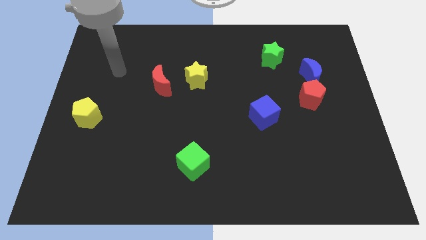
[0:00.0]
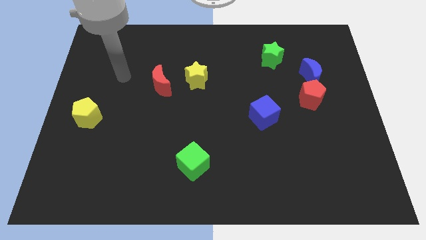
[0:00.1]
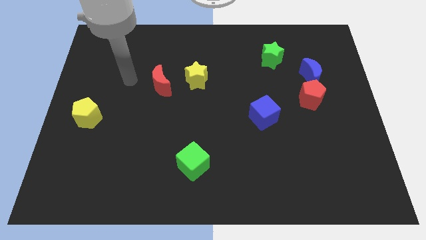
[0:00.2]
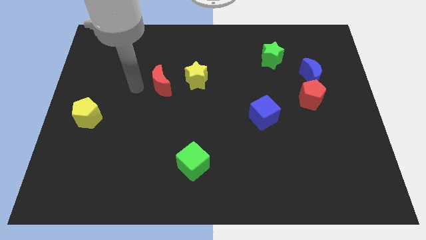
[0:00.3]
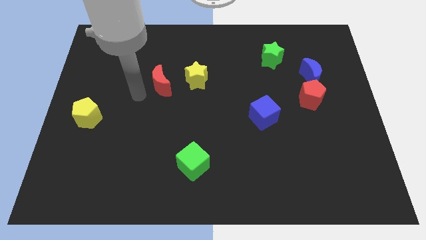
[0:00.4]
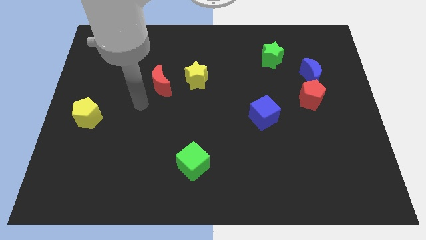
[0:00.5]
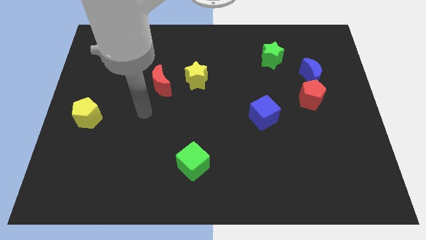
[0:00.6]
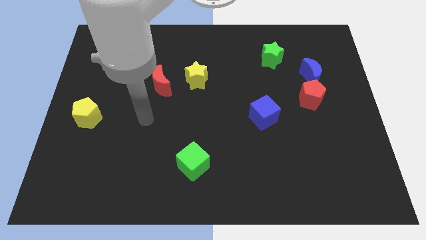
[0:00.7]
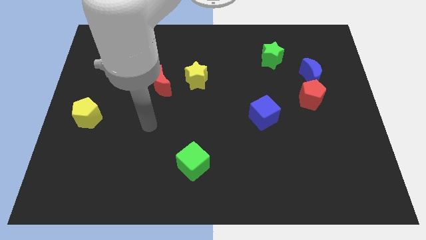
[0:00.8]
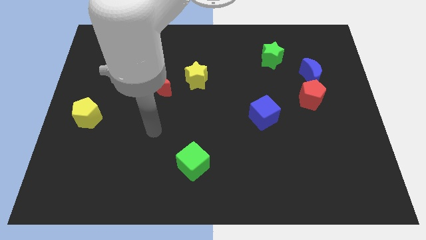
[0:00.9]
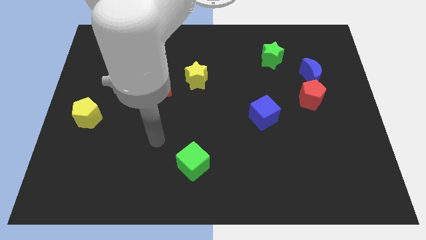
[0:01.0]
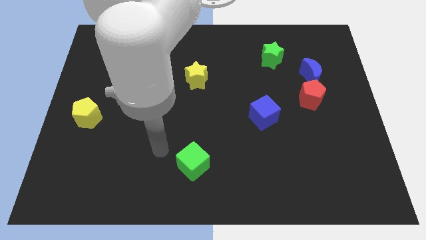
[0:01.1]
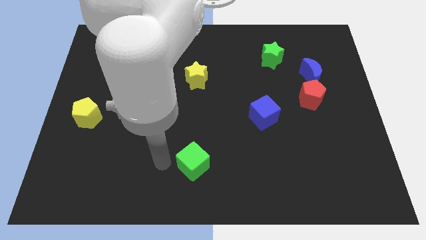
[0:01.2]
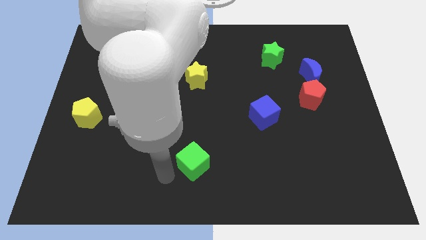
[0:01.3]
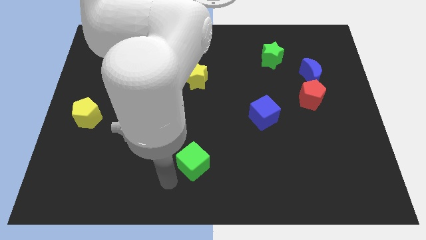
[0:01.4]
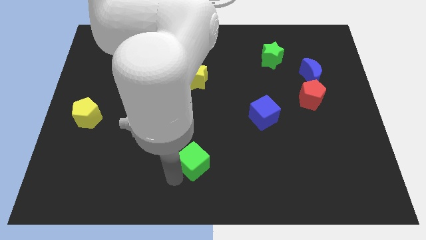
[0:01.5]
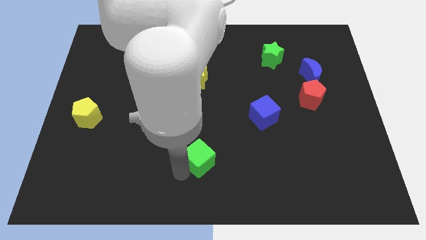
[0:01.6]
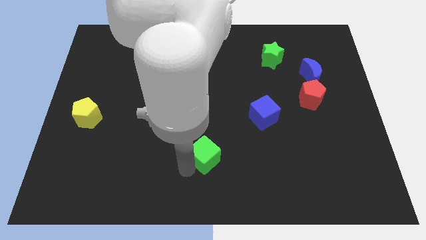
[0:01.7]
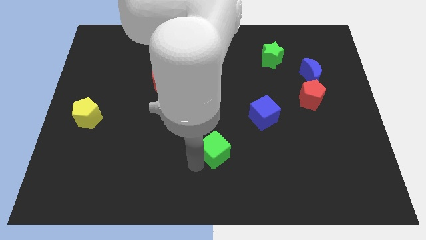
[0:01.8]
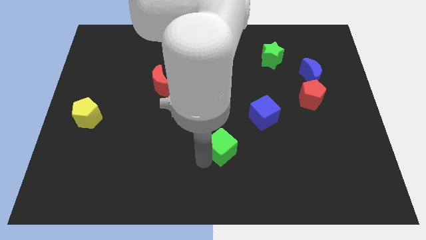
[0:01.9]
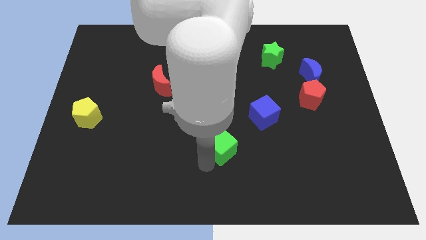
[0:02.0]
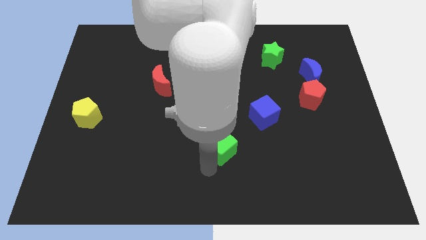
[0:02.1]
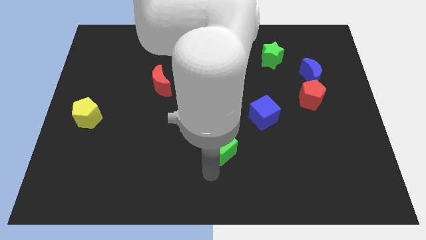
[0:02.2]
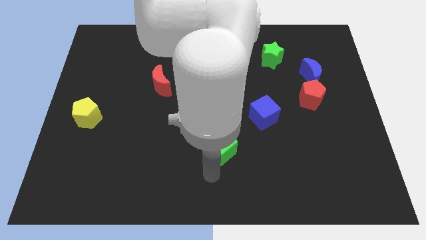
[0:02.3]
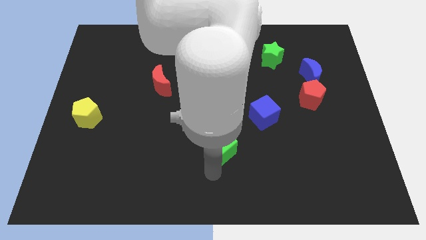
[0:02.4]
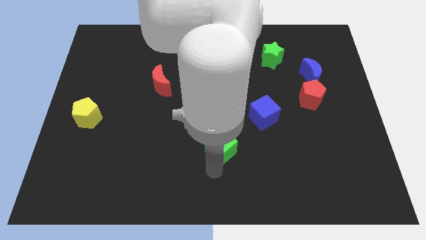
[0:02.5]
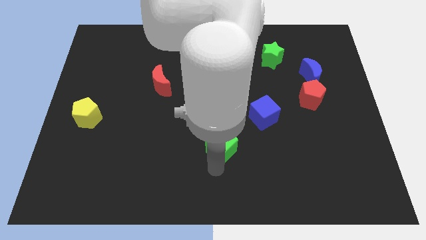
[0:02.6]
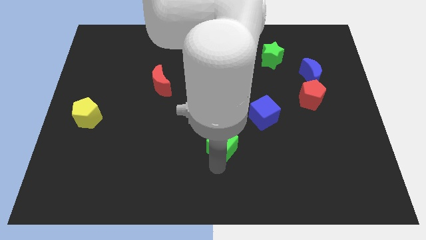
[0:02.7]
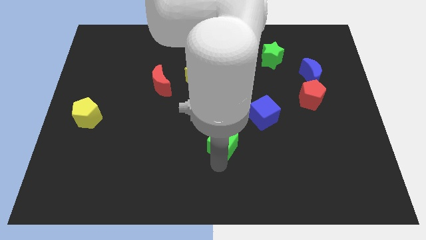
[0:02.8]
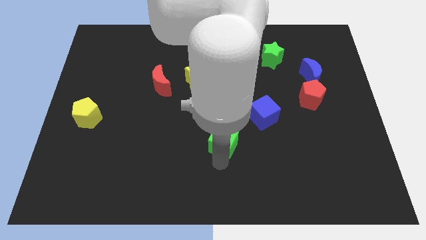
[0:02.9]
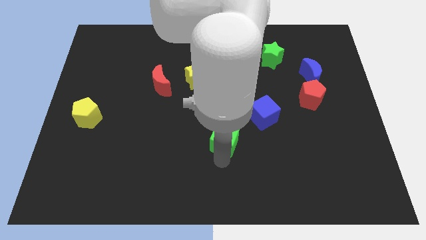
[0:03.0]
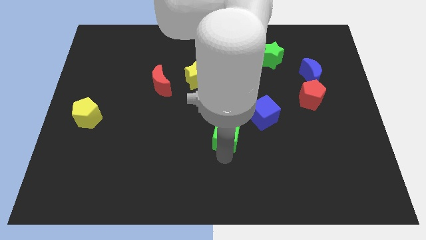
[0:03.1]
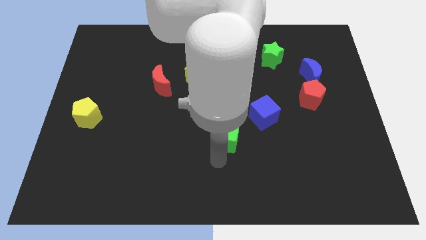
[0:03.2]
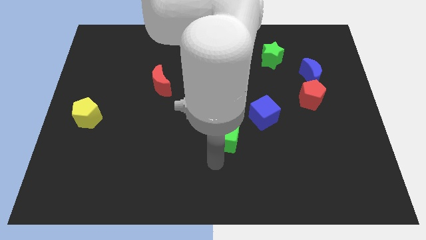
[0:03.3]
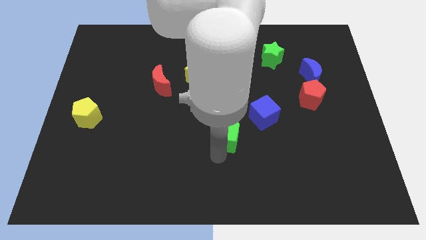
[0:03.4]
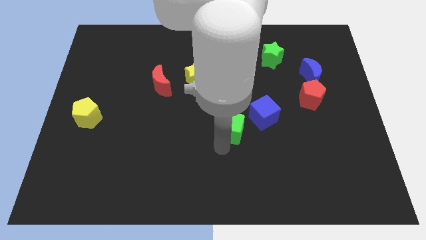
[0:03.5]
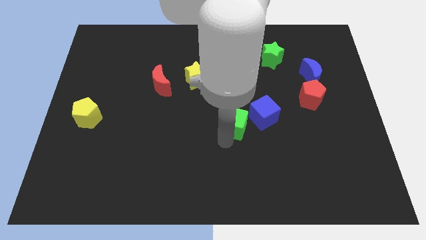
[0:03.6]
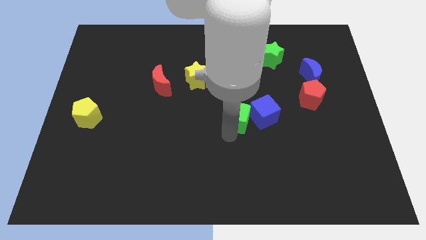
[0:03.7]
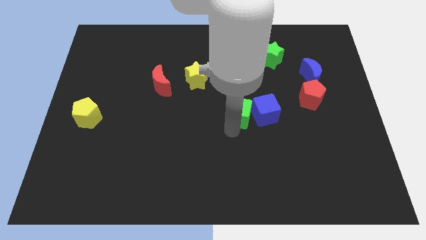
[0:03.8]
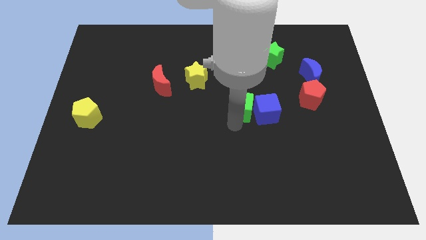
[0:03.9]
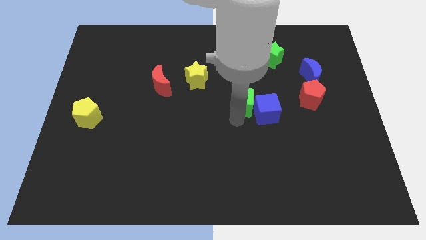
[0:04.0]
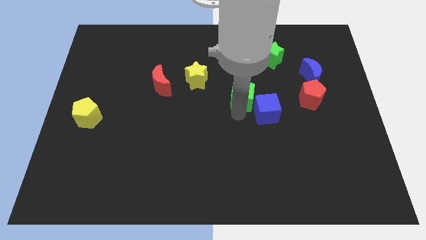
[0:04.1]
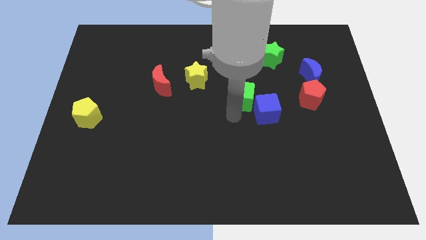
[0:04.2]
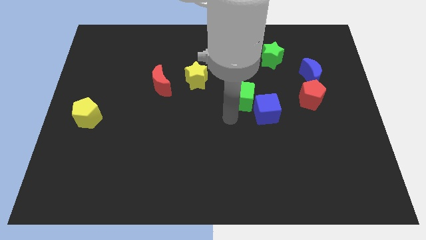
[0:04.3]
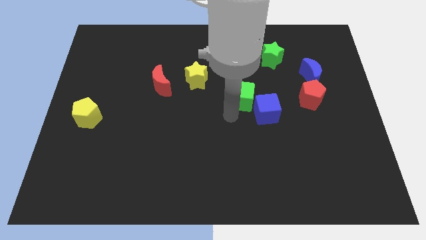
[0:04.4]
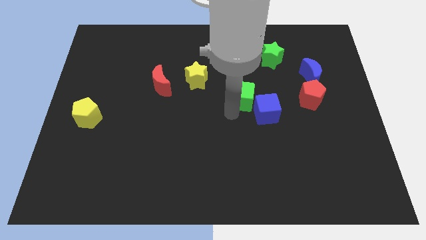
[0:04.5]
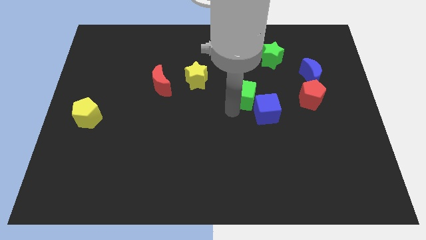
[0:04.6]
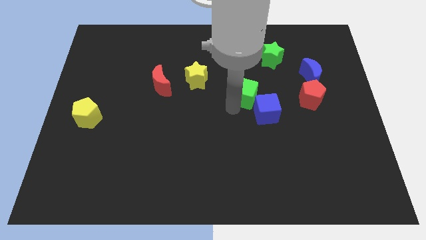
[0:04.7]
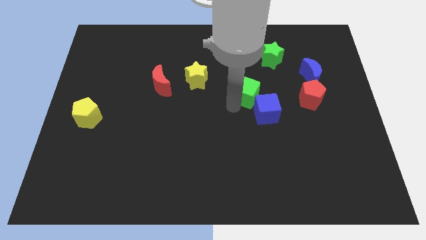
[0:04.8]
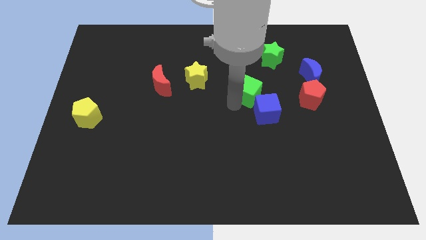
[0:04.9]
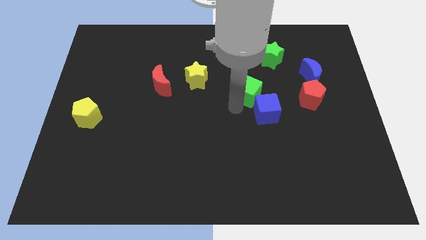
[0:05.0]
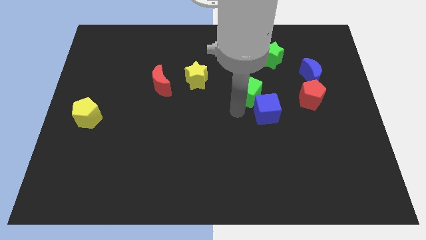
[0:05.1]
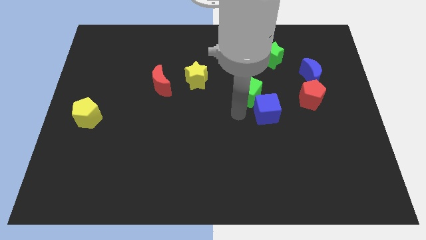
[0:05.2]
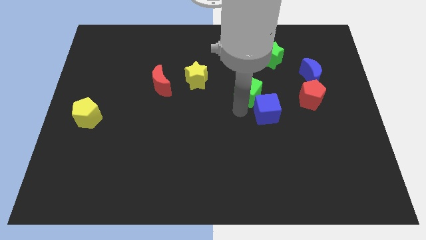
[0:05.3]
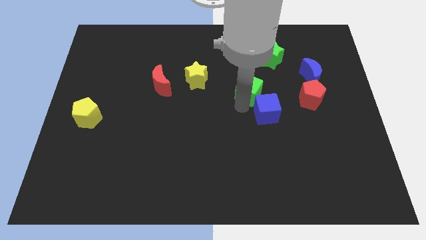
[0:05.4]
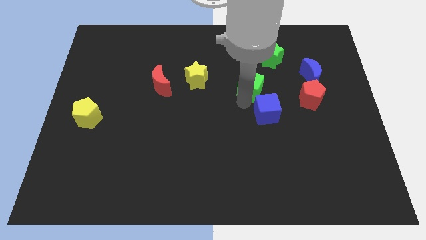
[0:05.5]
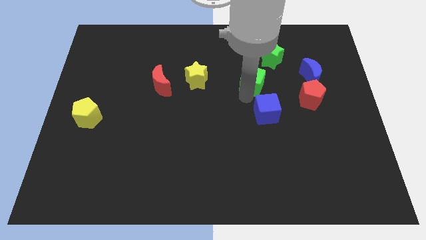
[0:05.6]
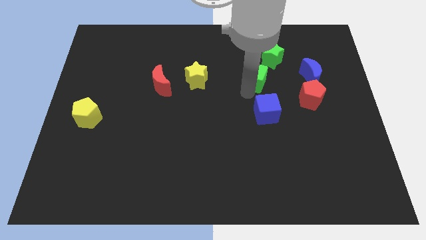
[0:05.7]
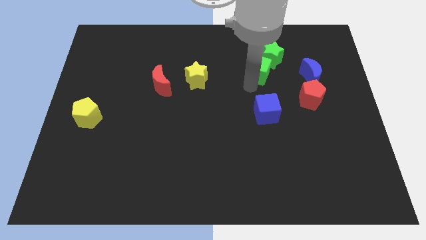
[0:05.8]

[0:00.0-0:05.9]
put the green cube towards the green star

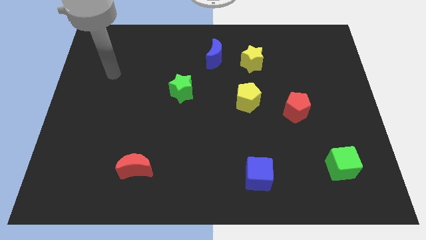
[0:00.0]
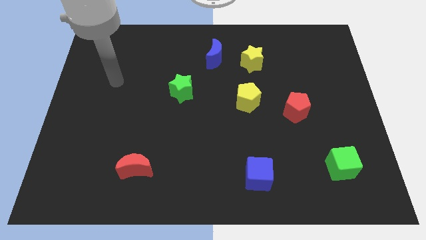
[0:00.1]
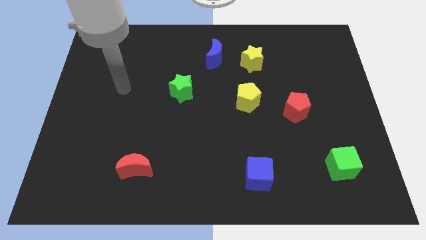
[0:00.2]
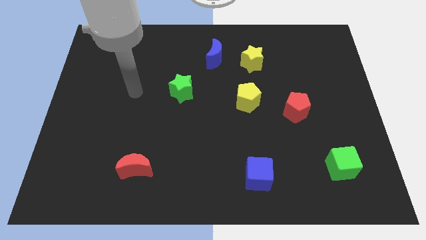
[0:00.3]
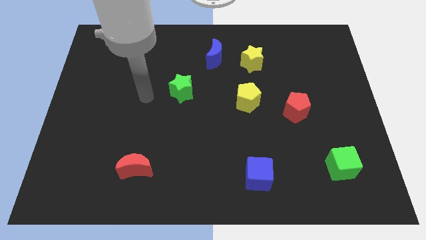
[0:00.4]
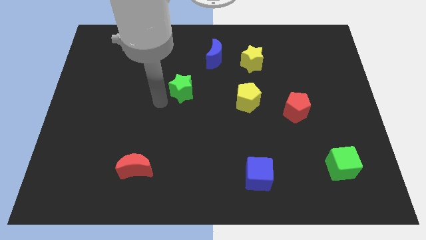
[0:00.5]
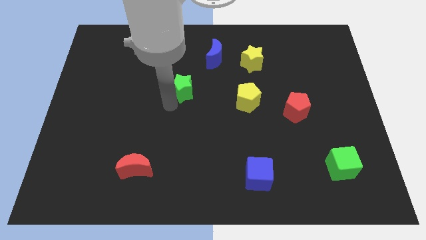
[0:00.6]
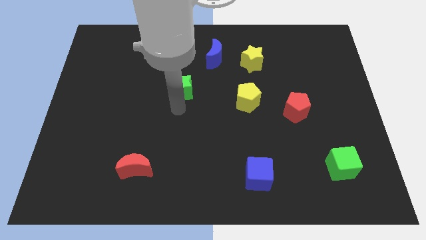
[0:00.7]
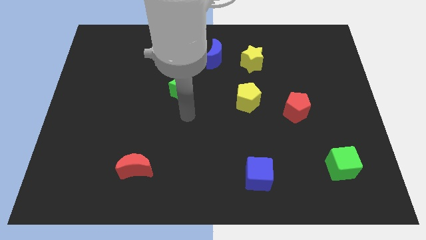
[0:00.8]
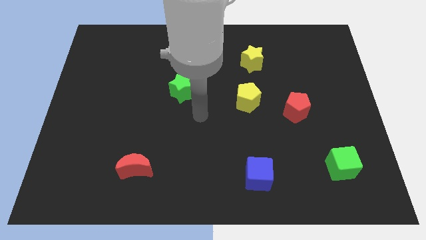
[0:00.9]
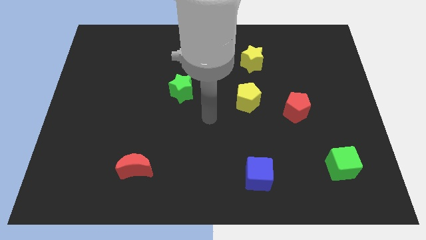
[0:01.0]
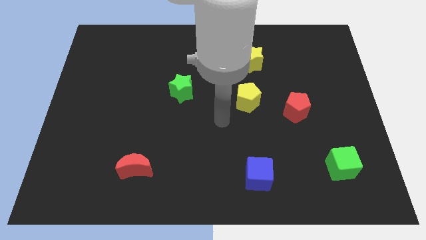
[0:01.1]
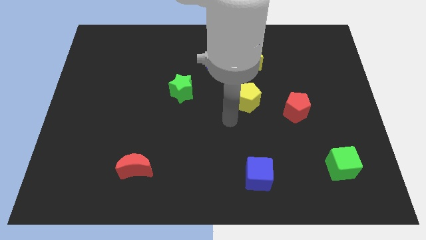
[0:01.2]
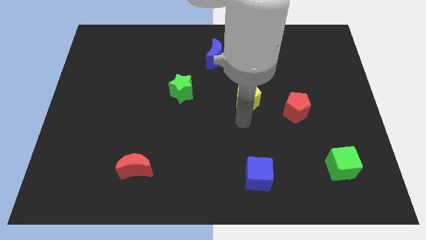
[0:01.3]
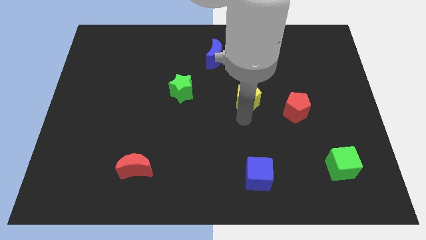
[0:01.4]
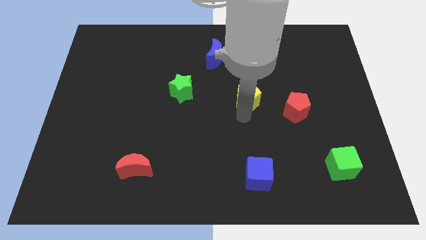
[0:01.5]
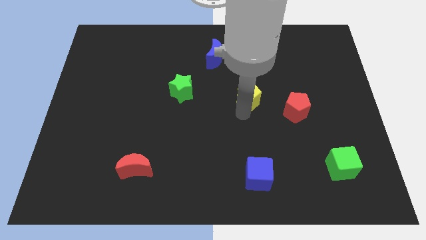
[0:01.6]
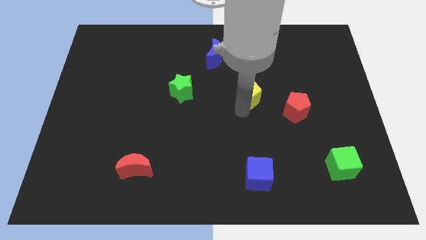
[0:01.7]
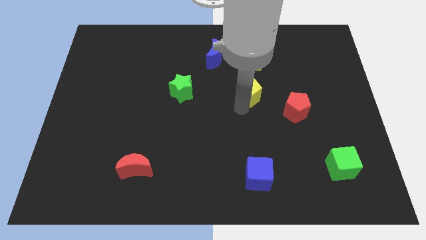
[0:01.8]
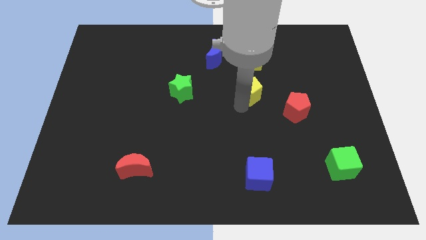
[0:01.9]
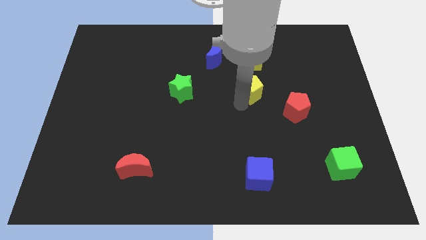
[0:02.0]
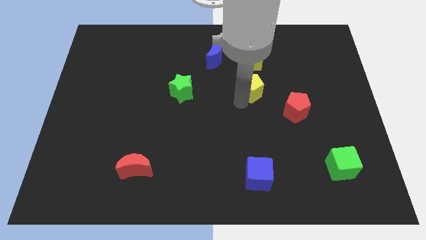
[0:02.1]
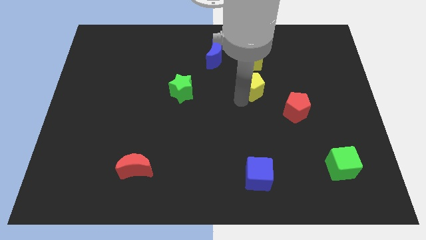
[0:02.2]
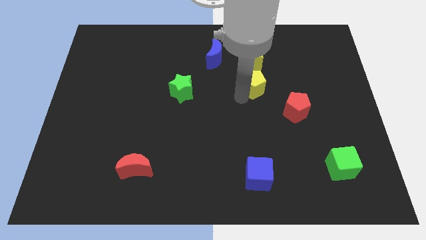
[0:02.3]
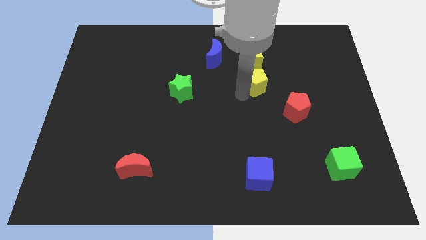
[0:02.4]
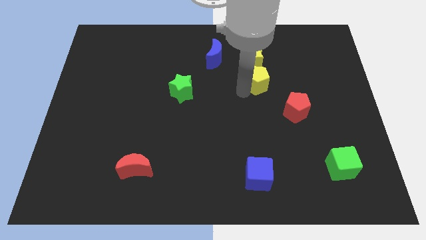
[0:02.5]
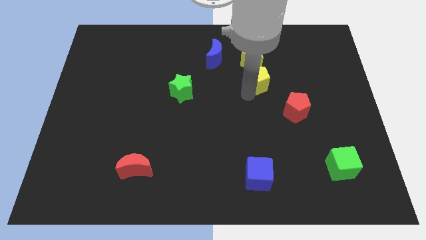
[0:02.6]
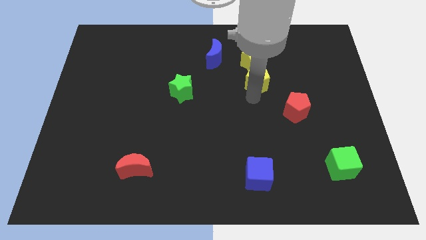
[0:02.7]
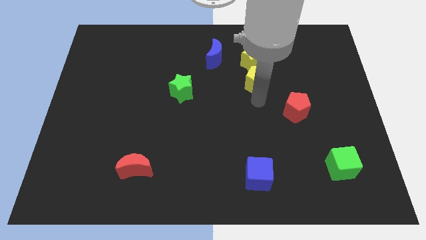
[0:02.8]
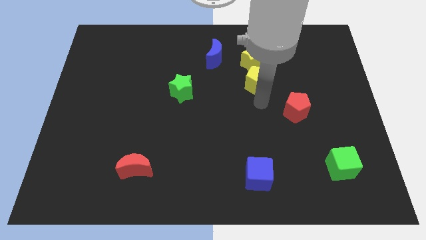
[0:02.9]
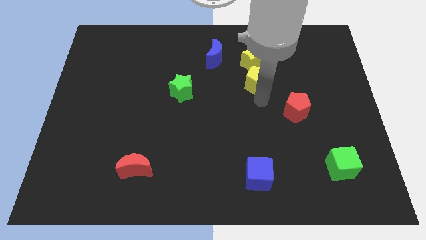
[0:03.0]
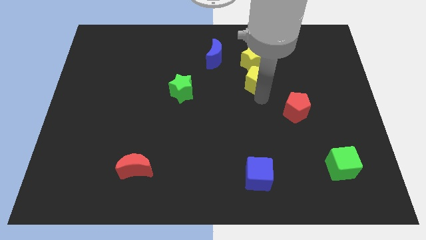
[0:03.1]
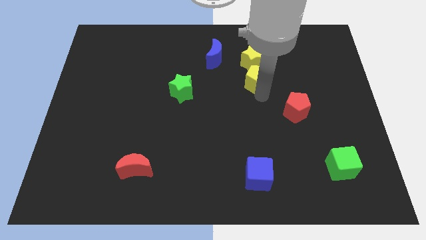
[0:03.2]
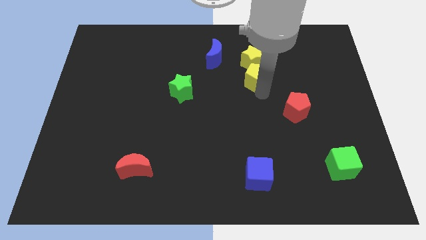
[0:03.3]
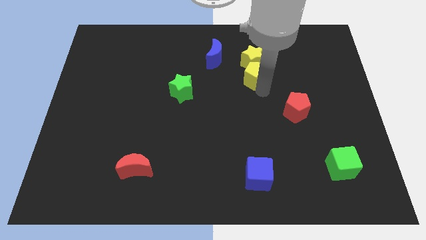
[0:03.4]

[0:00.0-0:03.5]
push the yellow pentagon to the yellow star
